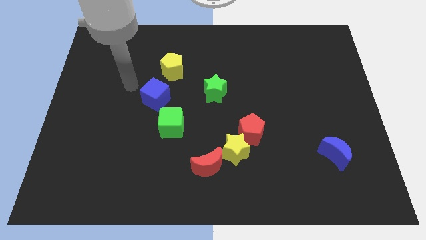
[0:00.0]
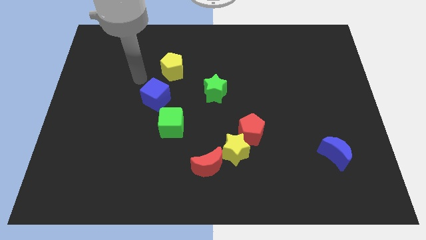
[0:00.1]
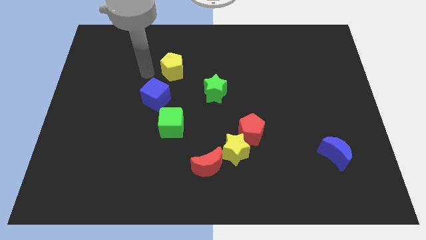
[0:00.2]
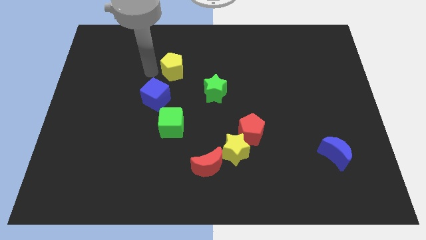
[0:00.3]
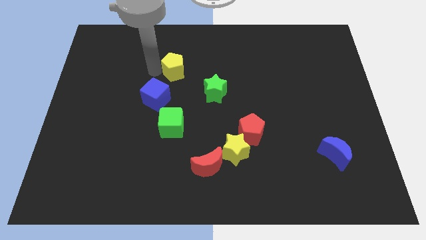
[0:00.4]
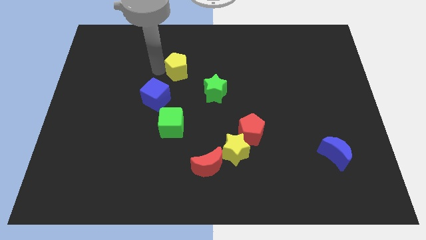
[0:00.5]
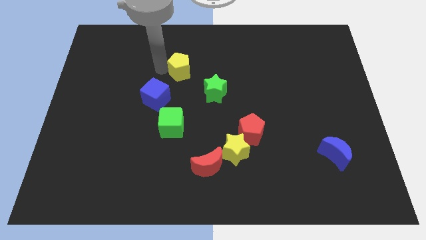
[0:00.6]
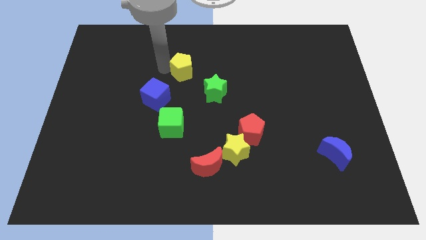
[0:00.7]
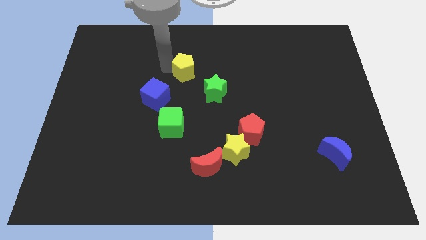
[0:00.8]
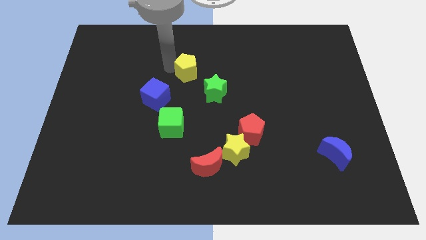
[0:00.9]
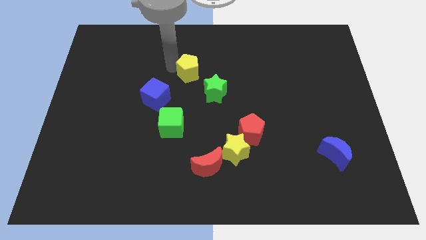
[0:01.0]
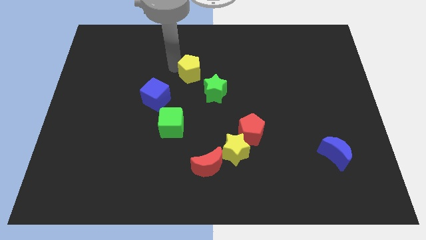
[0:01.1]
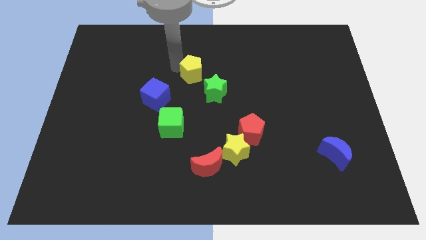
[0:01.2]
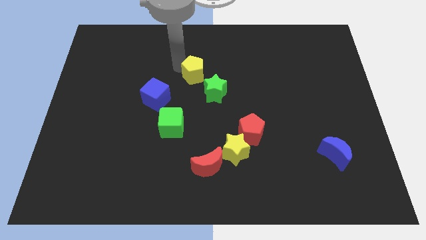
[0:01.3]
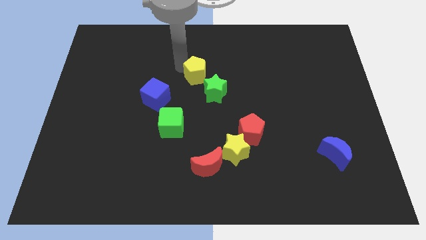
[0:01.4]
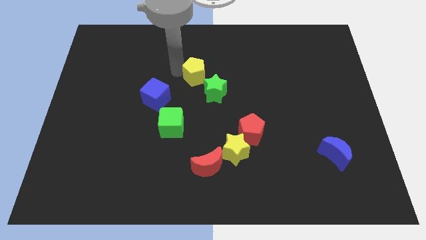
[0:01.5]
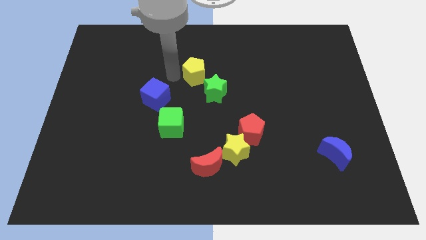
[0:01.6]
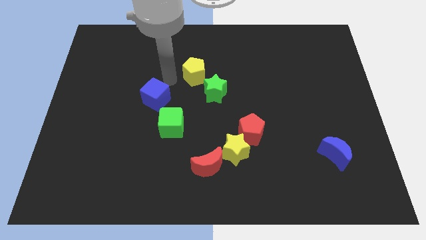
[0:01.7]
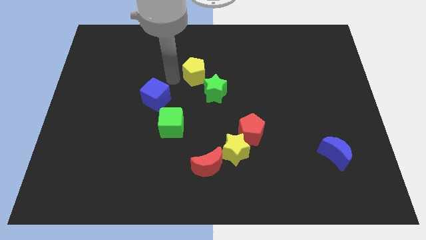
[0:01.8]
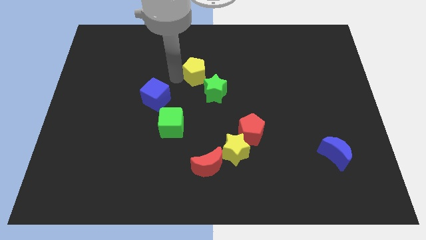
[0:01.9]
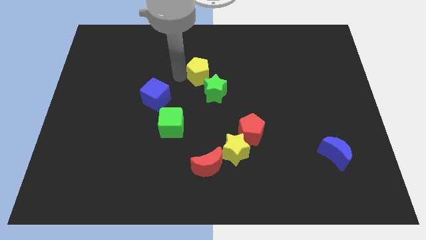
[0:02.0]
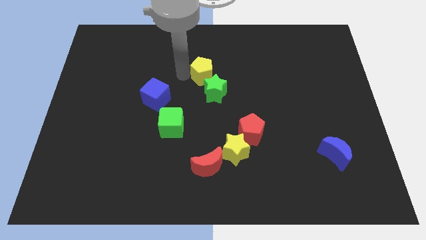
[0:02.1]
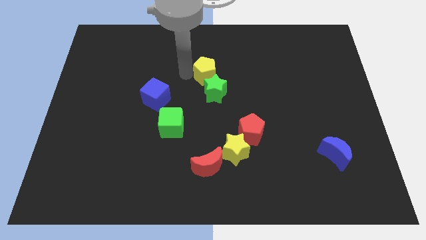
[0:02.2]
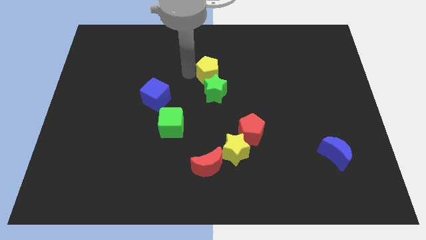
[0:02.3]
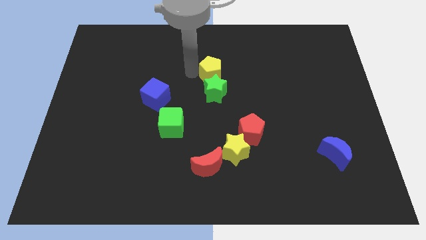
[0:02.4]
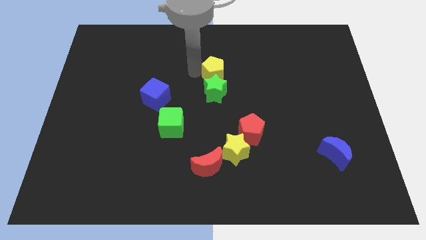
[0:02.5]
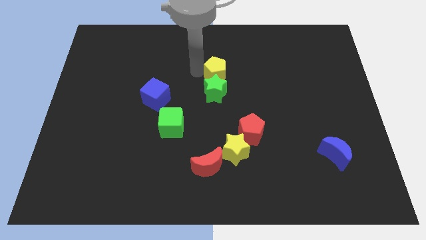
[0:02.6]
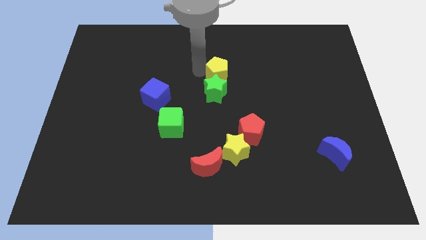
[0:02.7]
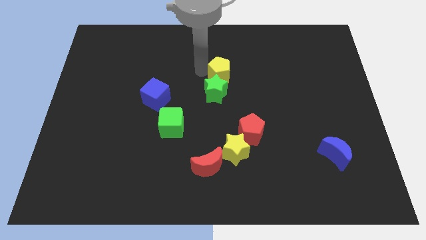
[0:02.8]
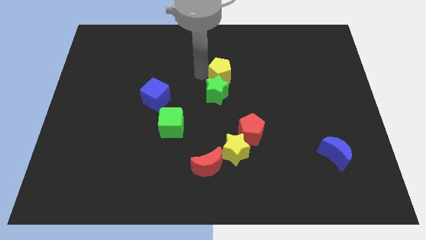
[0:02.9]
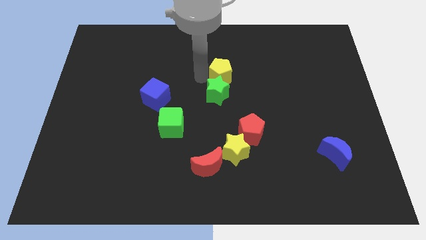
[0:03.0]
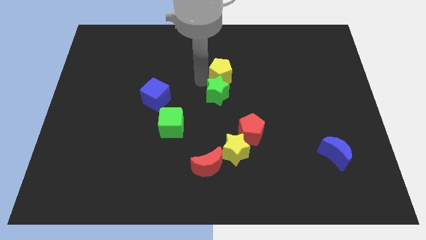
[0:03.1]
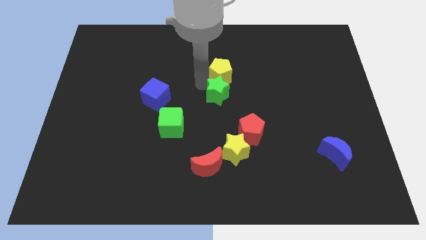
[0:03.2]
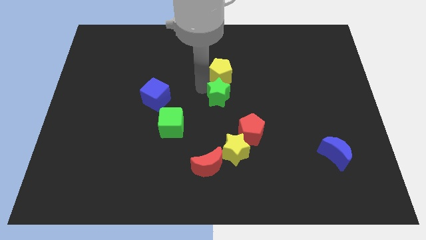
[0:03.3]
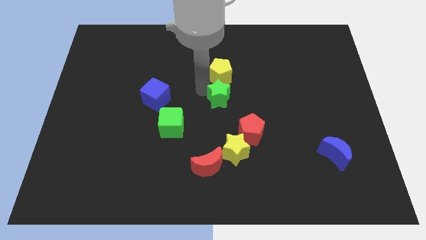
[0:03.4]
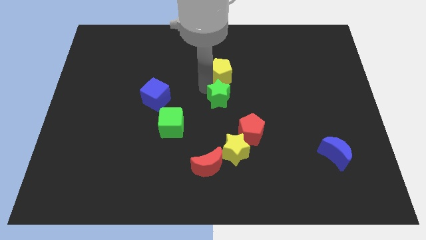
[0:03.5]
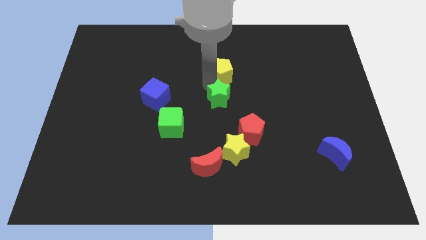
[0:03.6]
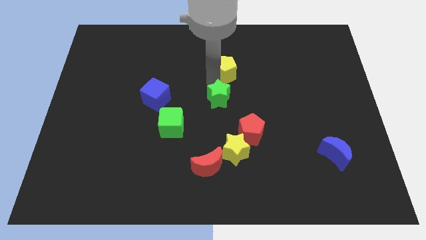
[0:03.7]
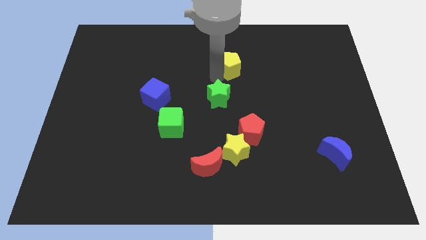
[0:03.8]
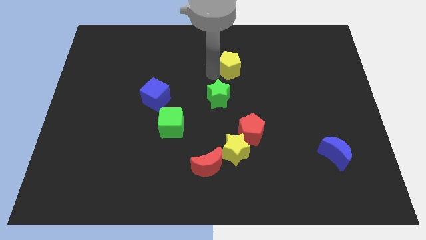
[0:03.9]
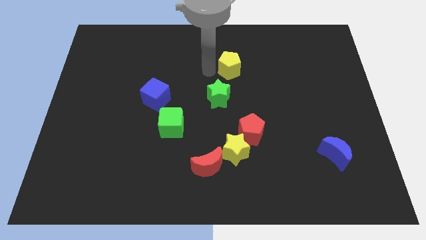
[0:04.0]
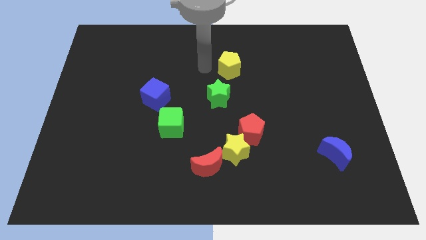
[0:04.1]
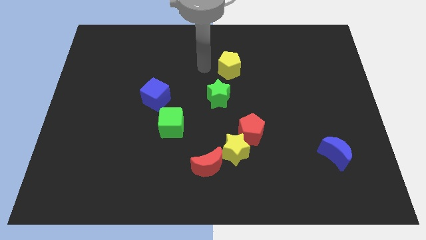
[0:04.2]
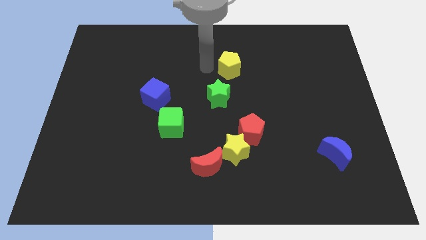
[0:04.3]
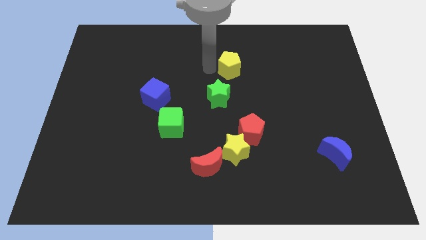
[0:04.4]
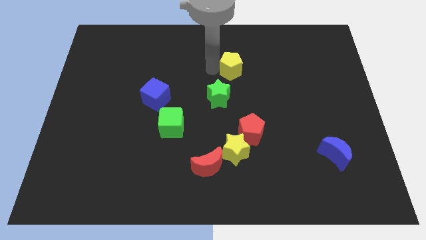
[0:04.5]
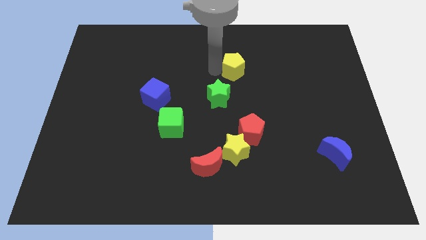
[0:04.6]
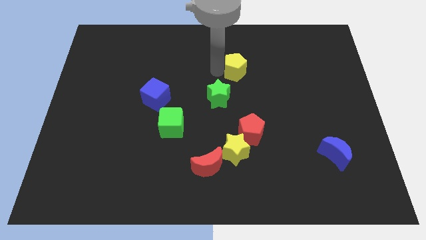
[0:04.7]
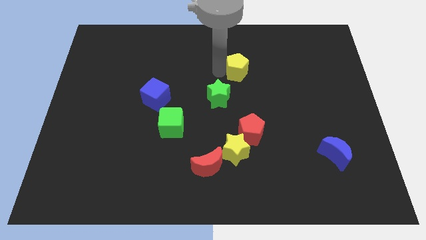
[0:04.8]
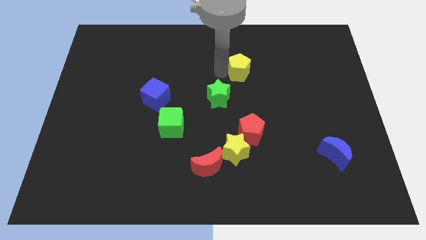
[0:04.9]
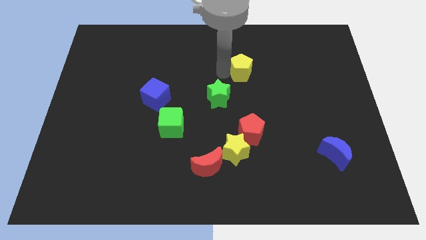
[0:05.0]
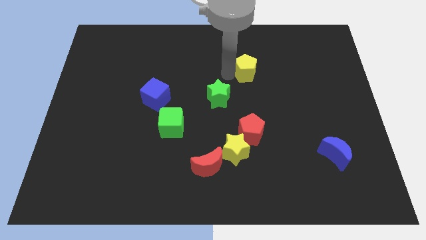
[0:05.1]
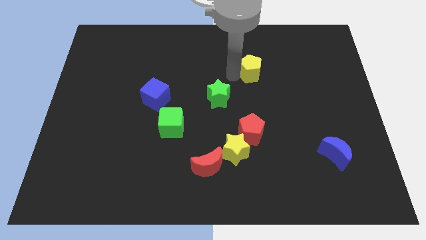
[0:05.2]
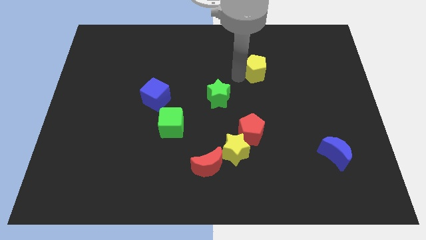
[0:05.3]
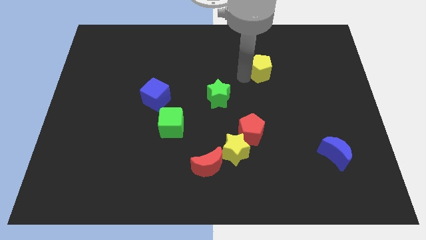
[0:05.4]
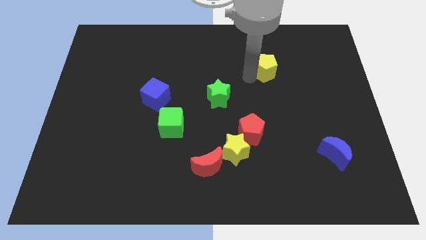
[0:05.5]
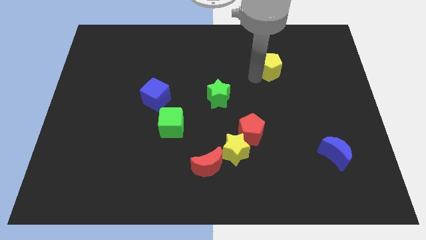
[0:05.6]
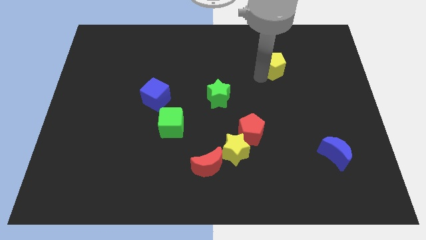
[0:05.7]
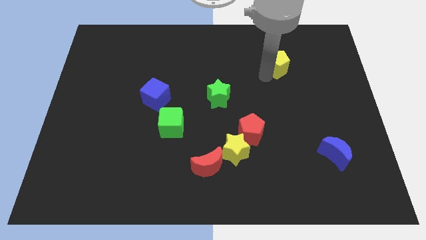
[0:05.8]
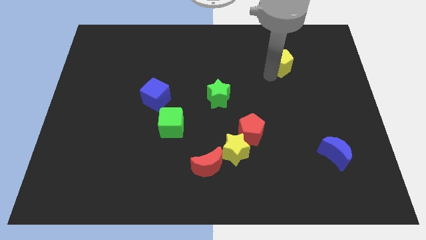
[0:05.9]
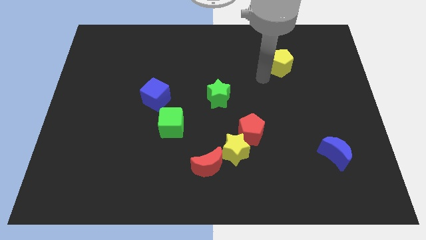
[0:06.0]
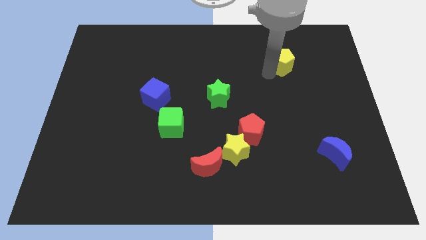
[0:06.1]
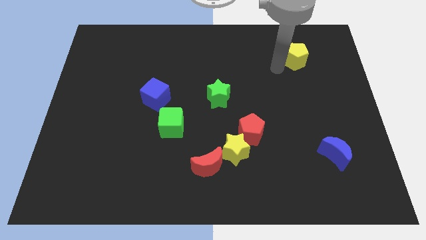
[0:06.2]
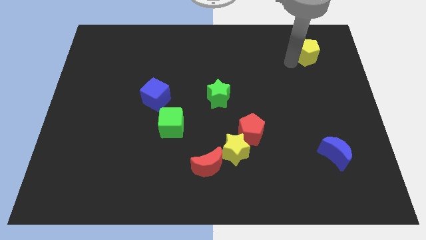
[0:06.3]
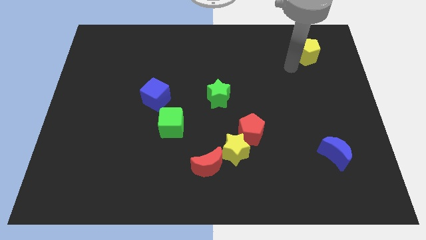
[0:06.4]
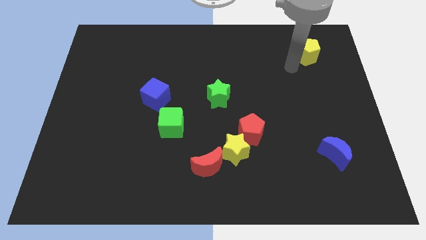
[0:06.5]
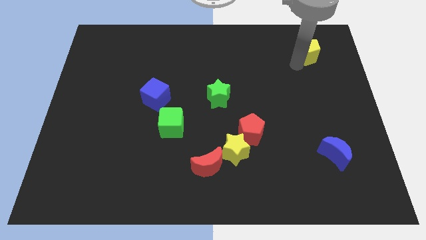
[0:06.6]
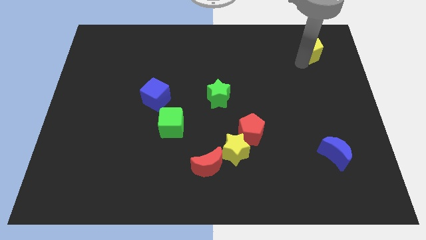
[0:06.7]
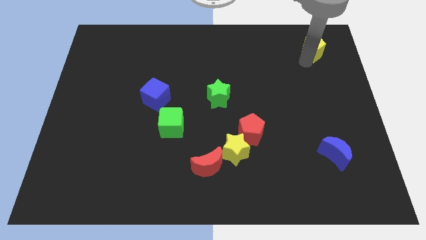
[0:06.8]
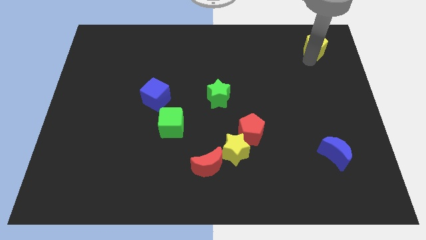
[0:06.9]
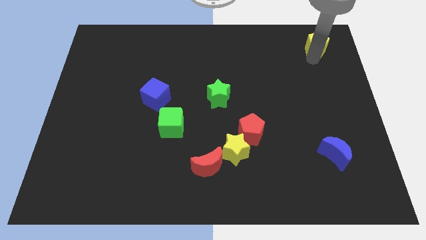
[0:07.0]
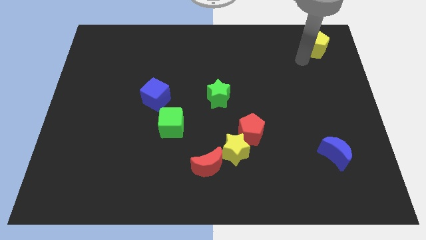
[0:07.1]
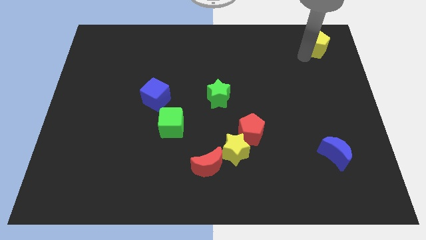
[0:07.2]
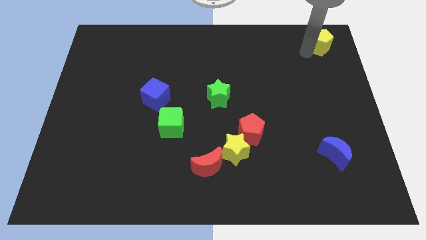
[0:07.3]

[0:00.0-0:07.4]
slide the yellow pentagon to the top right of the board
